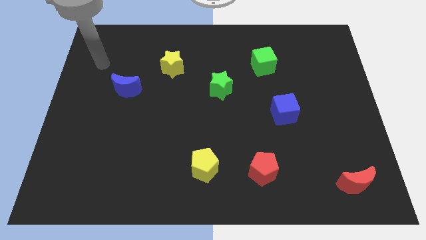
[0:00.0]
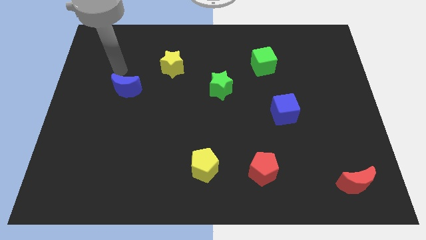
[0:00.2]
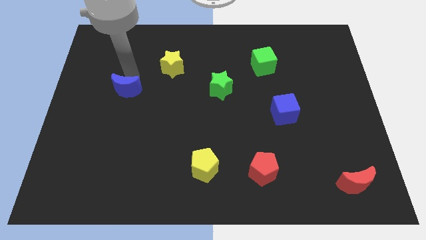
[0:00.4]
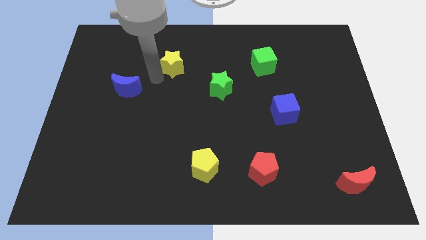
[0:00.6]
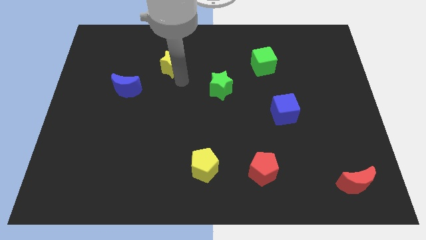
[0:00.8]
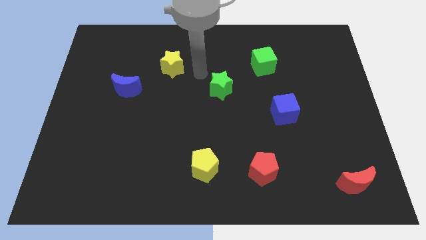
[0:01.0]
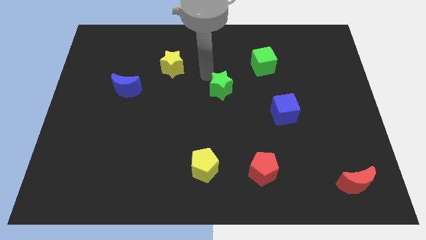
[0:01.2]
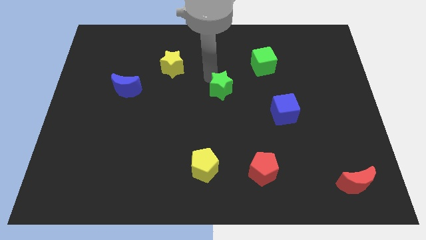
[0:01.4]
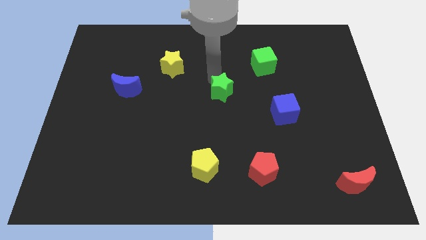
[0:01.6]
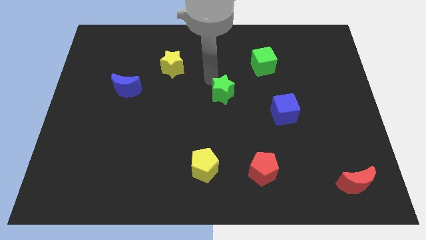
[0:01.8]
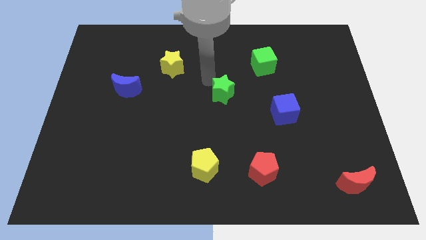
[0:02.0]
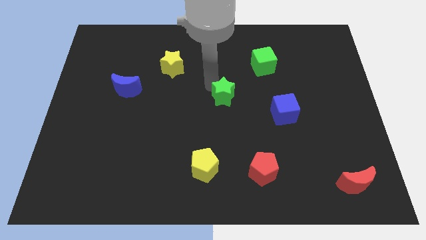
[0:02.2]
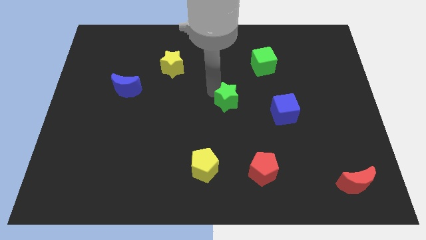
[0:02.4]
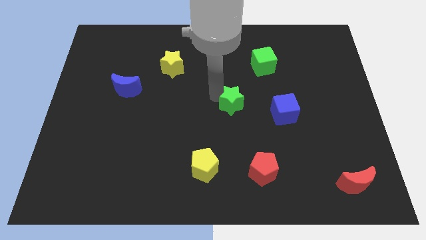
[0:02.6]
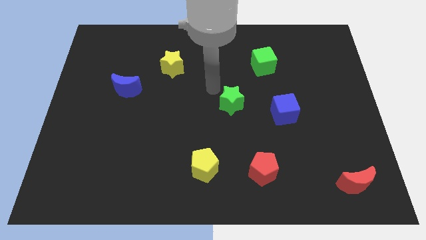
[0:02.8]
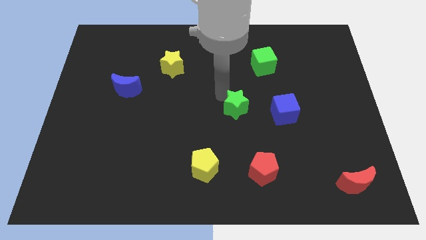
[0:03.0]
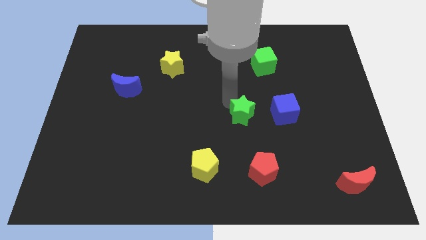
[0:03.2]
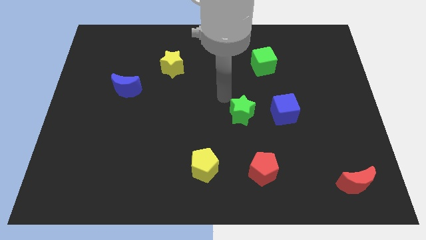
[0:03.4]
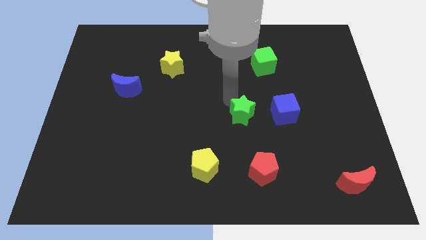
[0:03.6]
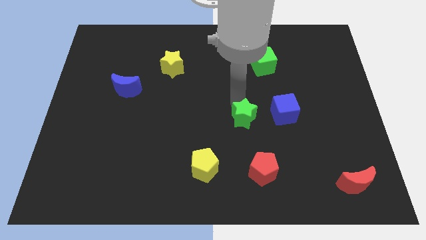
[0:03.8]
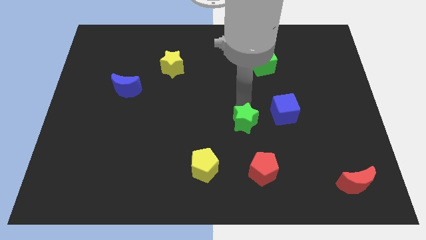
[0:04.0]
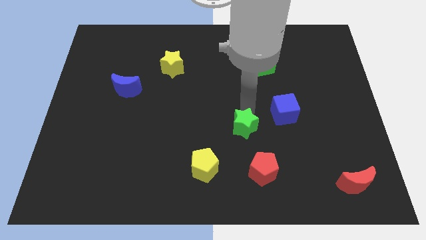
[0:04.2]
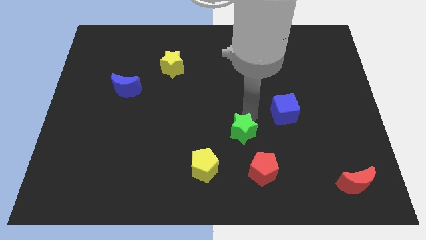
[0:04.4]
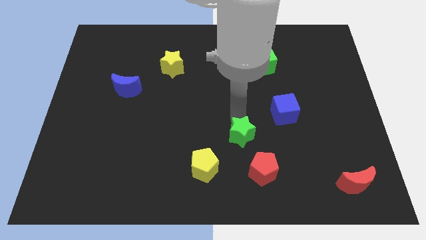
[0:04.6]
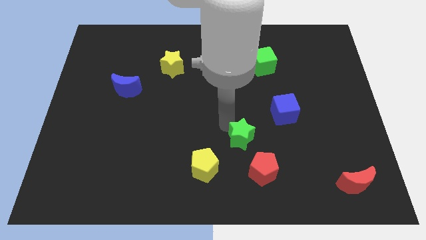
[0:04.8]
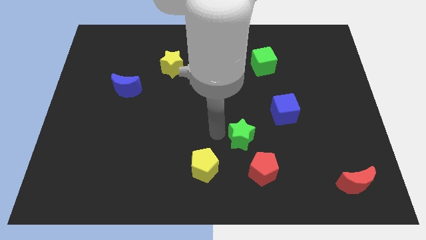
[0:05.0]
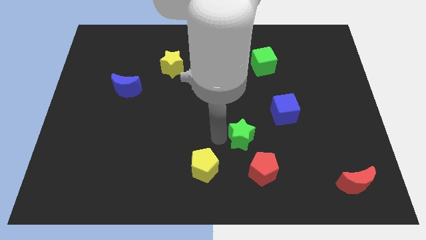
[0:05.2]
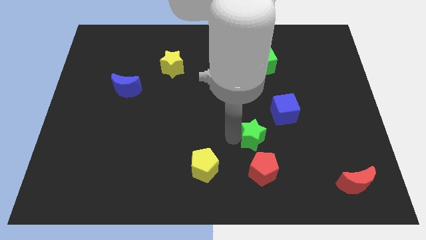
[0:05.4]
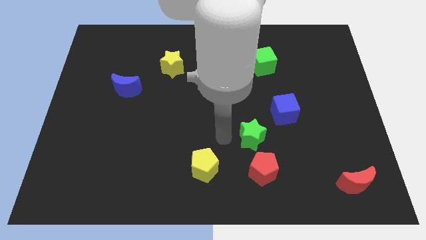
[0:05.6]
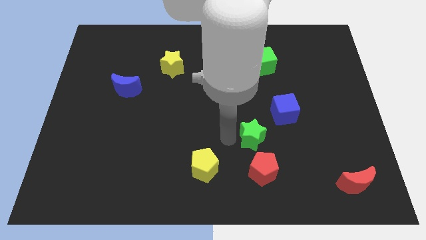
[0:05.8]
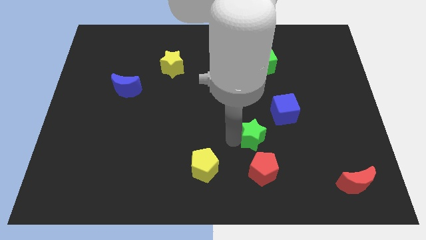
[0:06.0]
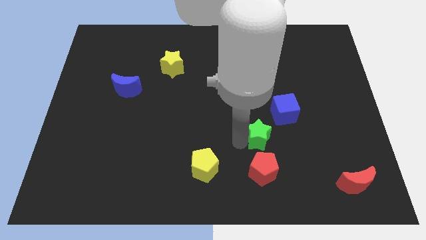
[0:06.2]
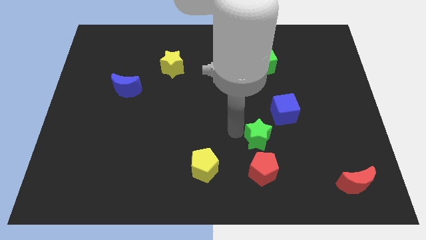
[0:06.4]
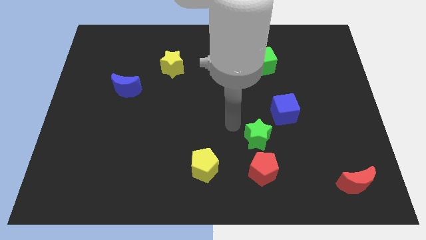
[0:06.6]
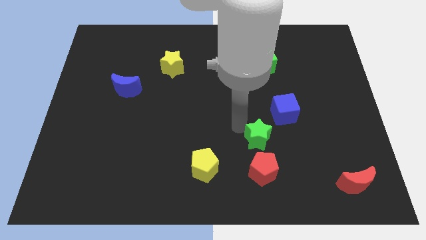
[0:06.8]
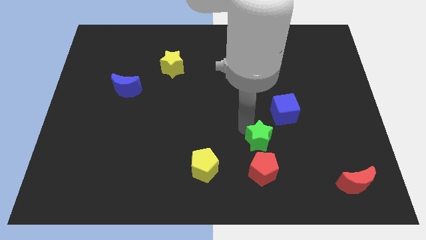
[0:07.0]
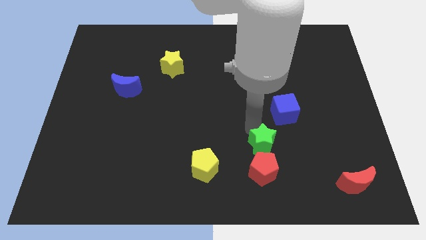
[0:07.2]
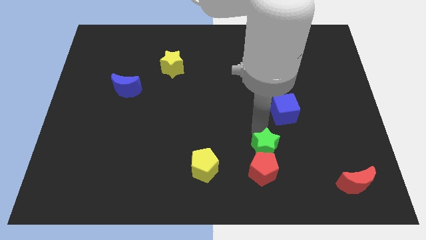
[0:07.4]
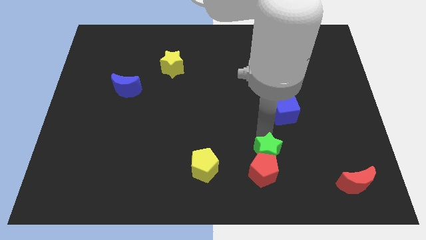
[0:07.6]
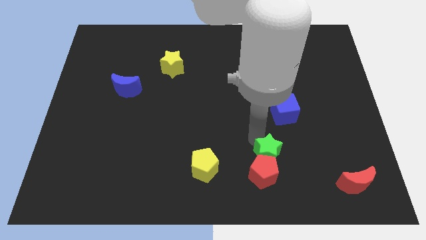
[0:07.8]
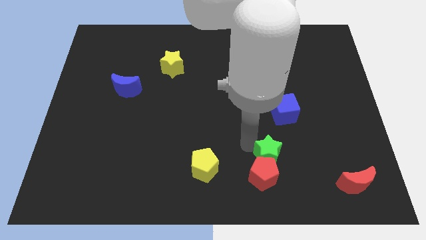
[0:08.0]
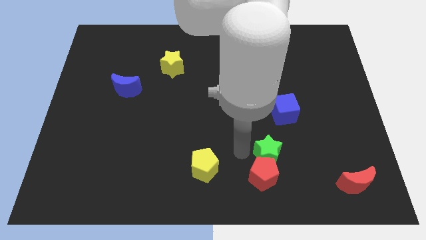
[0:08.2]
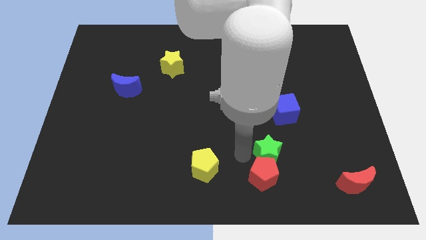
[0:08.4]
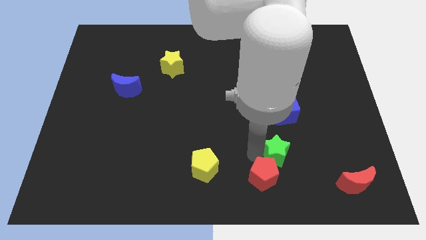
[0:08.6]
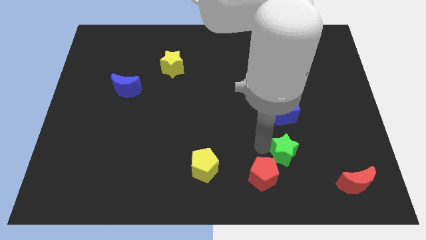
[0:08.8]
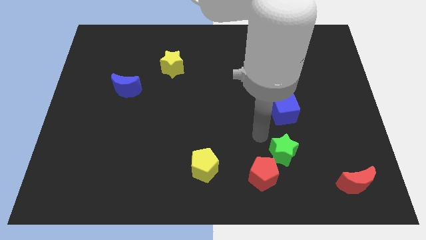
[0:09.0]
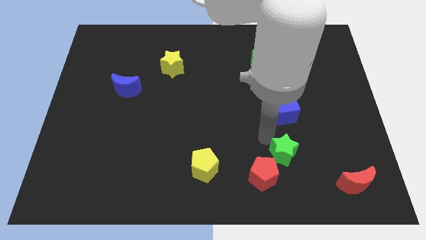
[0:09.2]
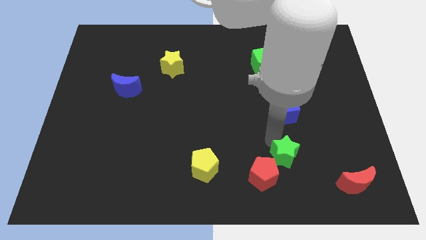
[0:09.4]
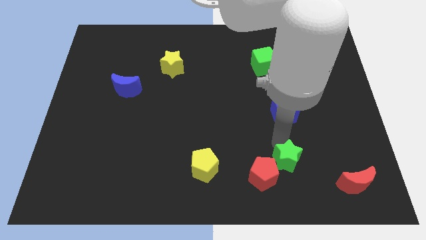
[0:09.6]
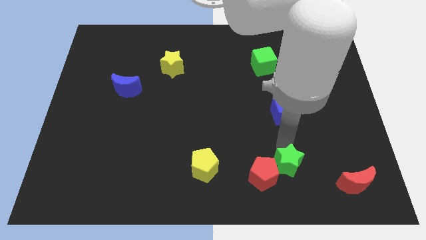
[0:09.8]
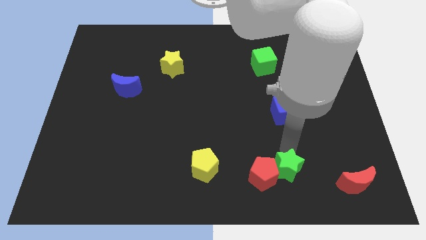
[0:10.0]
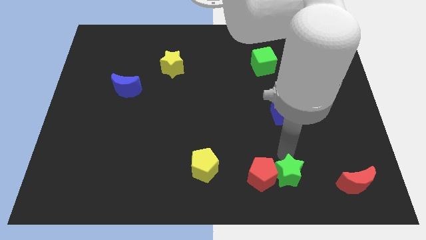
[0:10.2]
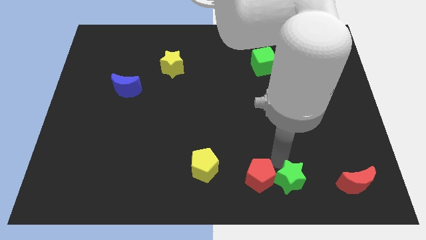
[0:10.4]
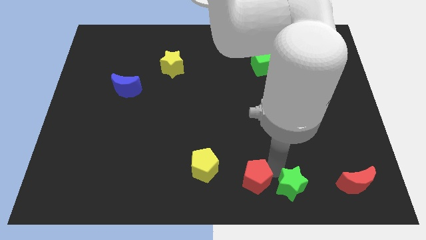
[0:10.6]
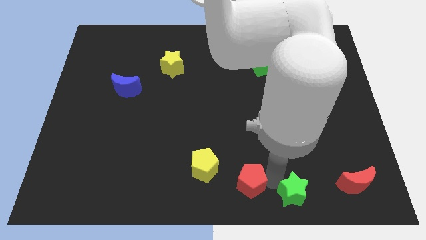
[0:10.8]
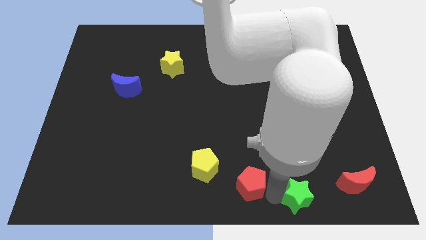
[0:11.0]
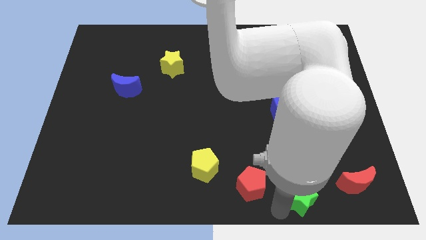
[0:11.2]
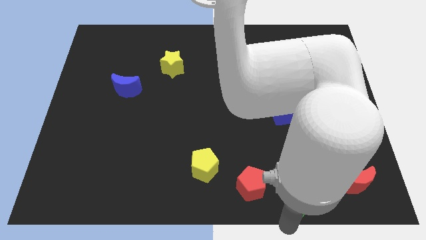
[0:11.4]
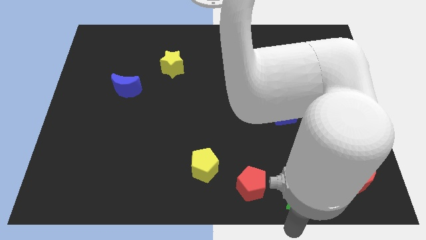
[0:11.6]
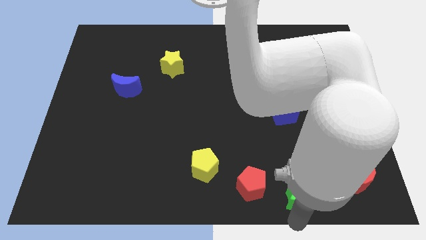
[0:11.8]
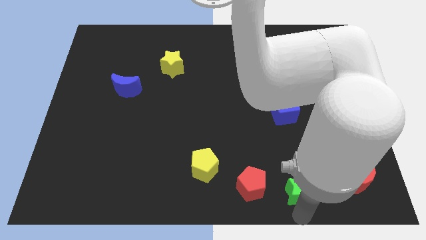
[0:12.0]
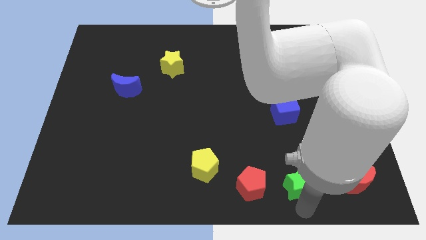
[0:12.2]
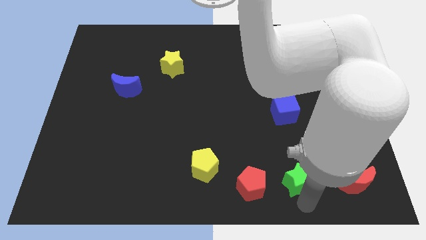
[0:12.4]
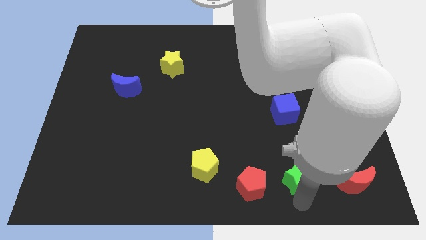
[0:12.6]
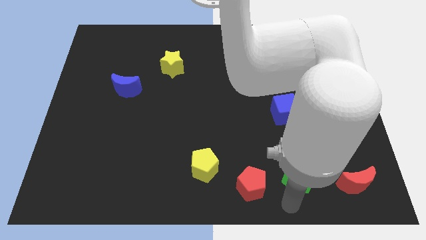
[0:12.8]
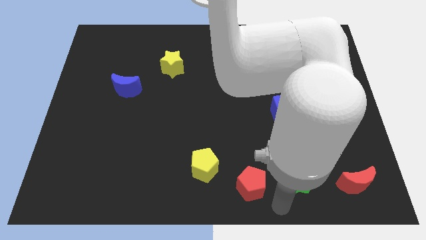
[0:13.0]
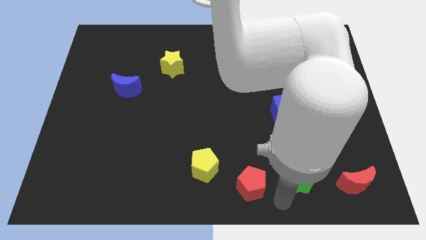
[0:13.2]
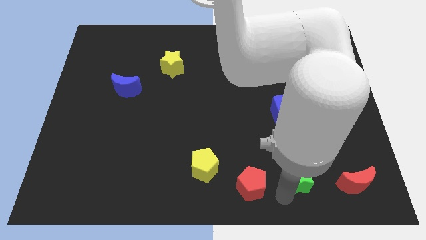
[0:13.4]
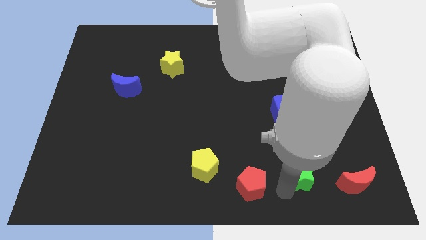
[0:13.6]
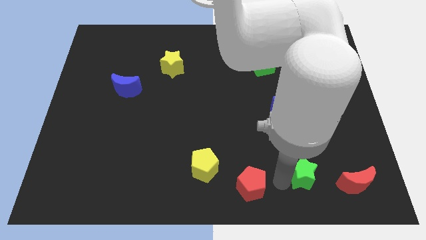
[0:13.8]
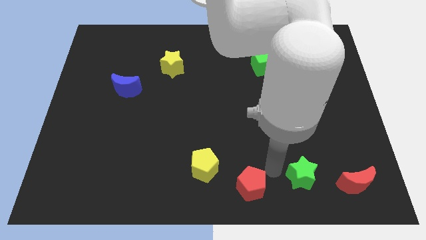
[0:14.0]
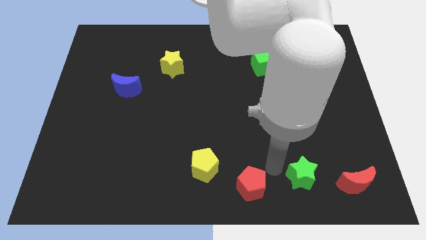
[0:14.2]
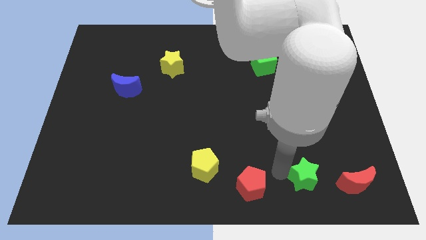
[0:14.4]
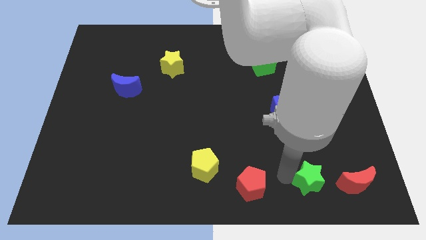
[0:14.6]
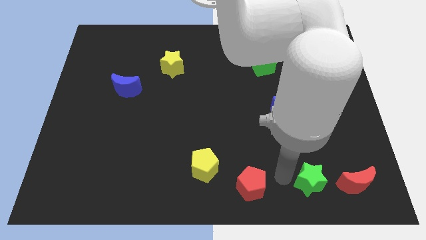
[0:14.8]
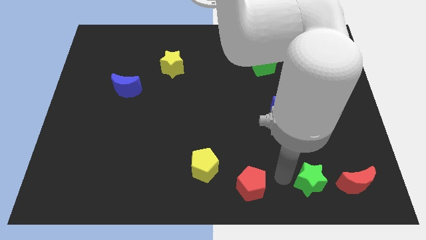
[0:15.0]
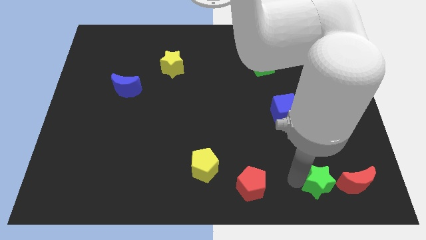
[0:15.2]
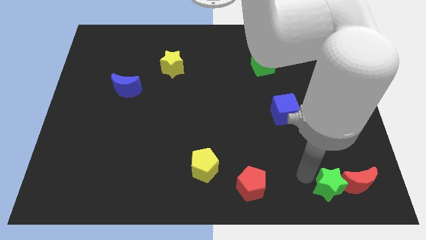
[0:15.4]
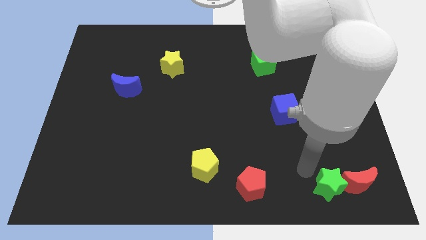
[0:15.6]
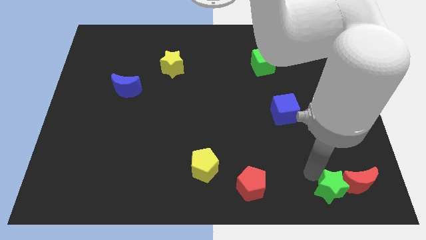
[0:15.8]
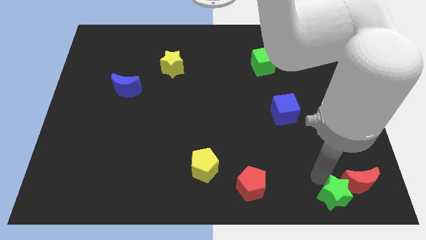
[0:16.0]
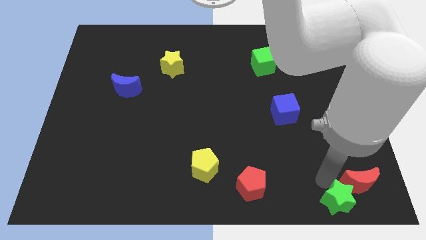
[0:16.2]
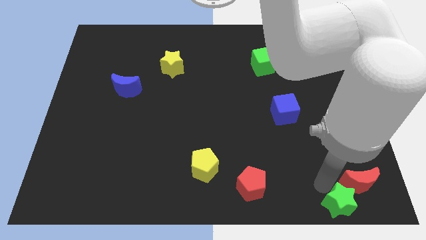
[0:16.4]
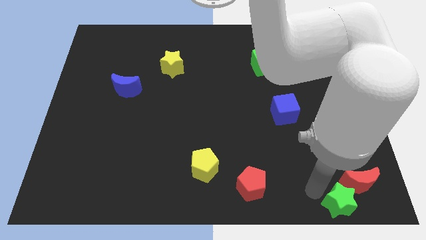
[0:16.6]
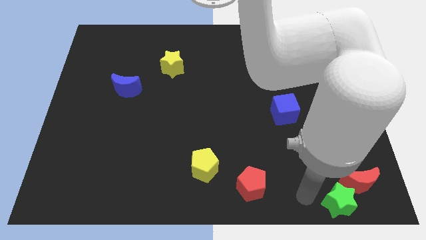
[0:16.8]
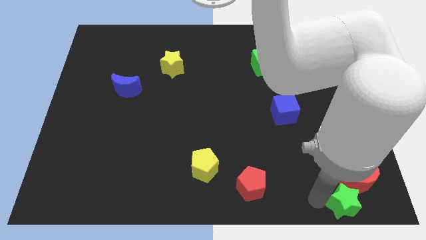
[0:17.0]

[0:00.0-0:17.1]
slide the green star to the bottom right of the board
